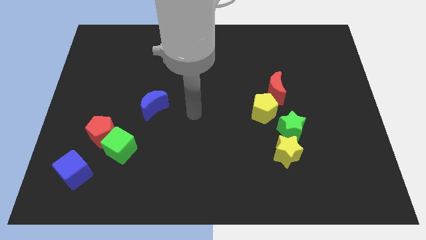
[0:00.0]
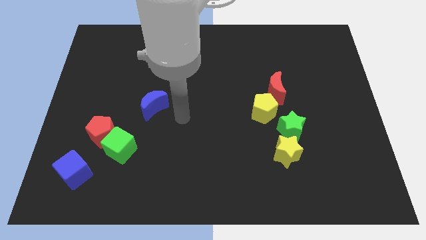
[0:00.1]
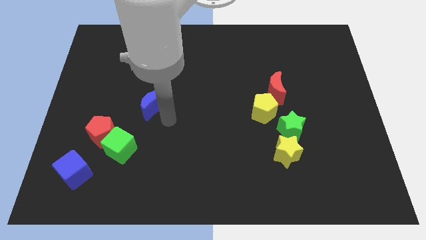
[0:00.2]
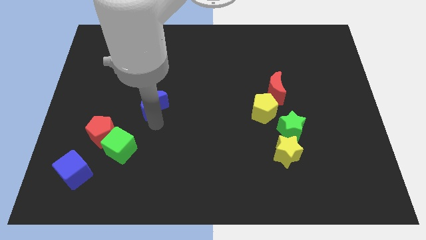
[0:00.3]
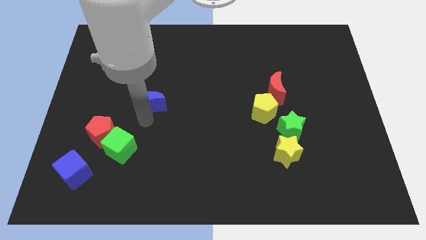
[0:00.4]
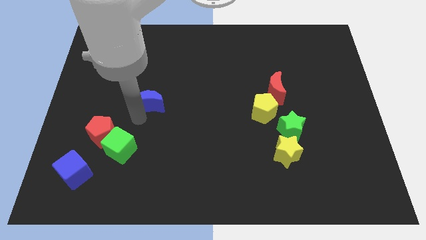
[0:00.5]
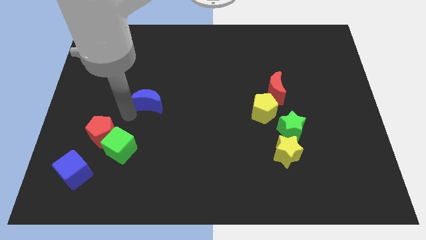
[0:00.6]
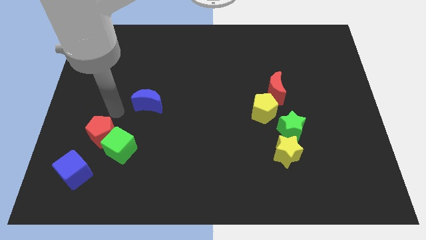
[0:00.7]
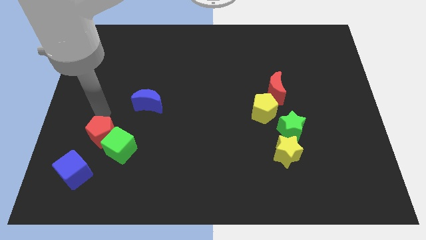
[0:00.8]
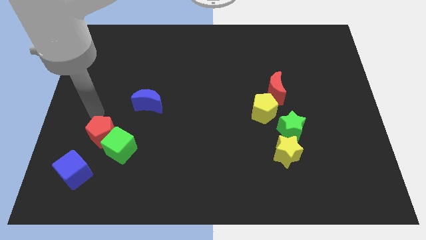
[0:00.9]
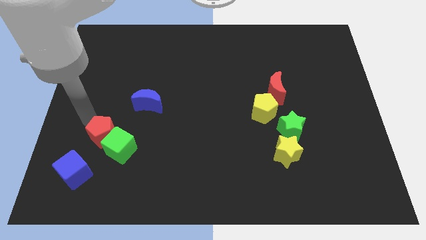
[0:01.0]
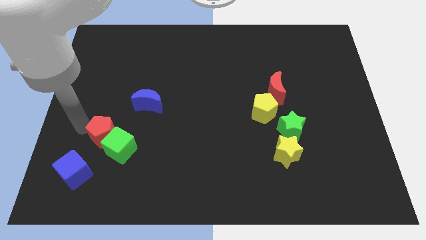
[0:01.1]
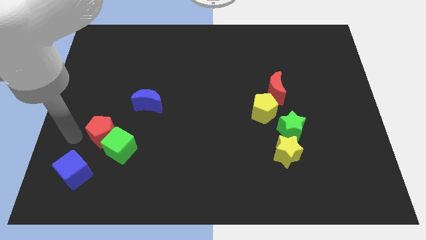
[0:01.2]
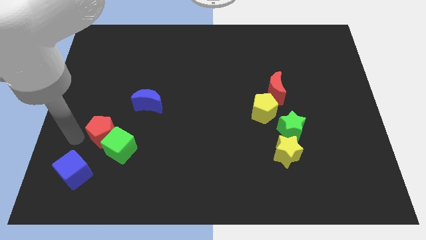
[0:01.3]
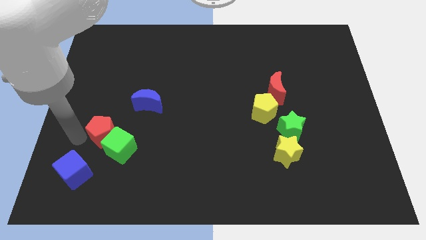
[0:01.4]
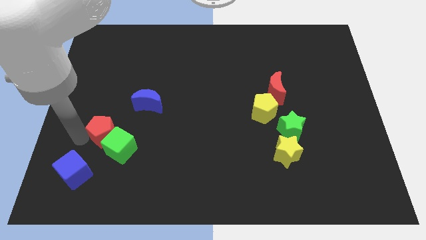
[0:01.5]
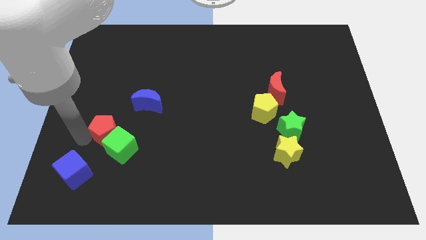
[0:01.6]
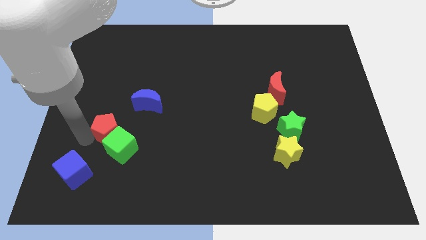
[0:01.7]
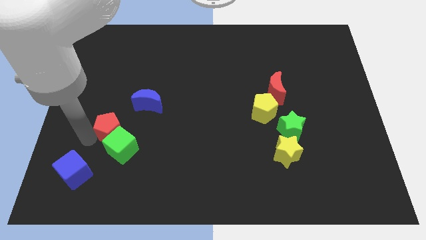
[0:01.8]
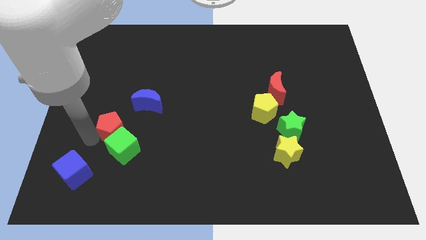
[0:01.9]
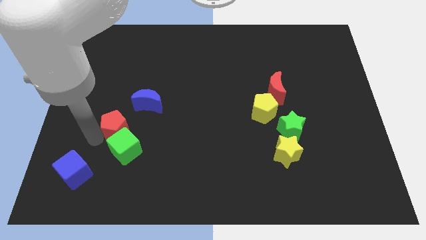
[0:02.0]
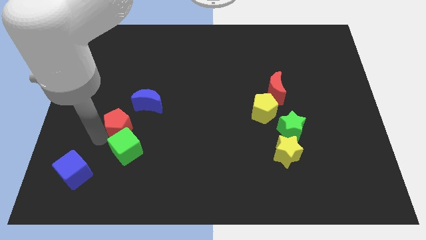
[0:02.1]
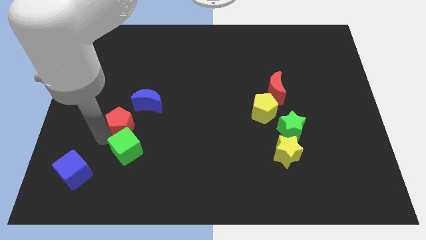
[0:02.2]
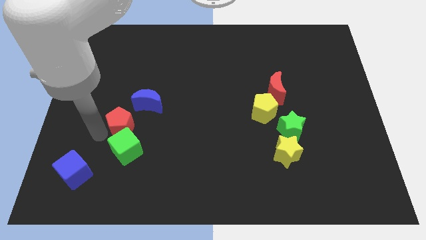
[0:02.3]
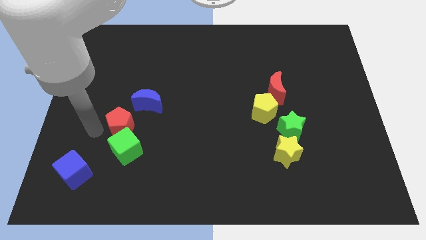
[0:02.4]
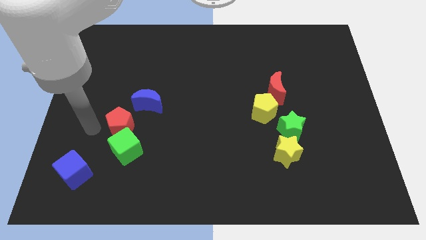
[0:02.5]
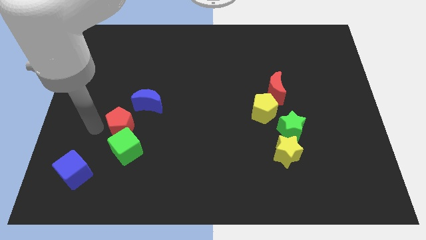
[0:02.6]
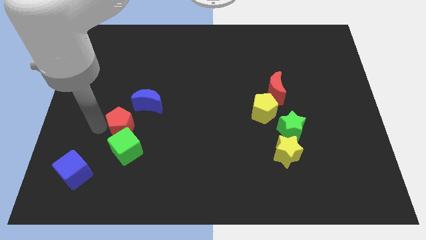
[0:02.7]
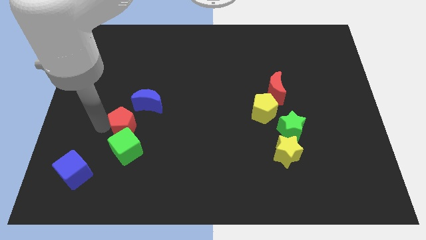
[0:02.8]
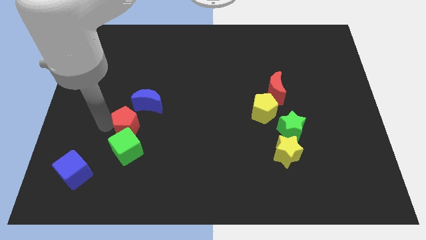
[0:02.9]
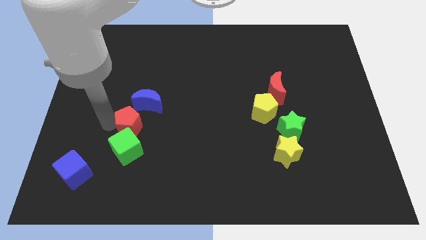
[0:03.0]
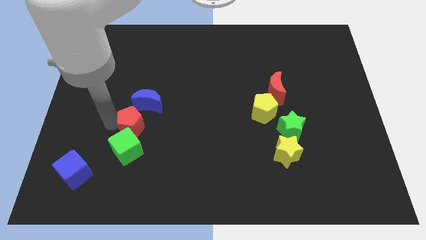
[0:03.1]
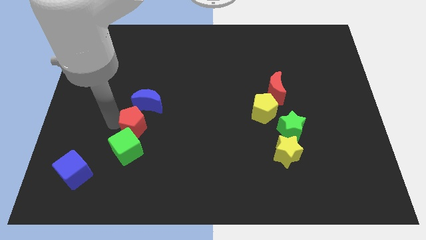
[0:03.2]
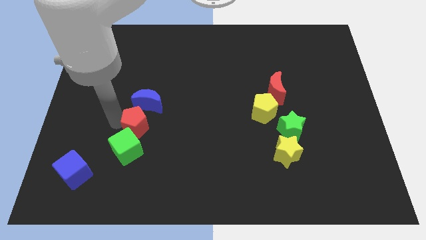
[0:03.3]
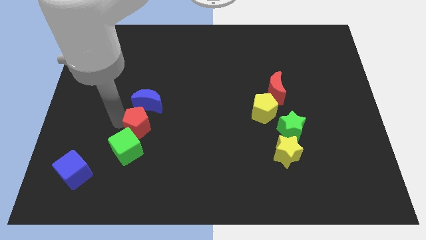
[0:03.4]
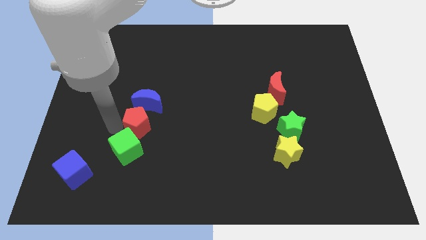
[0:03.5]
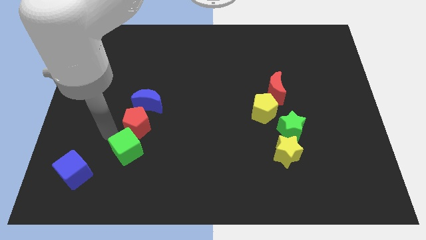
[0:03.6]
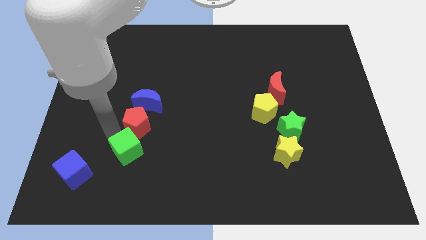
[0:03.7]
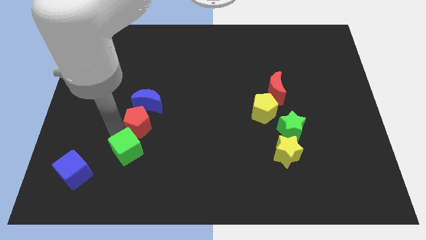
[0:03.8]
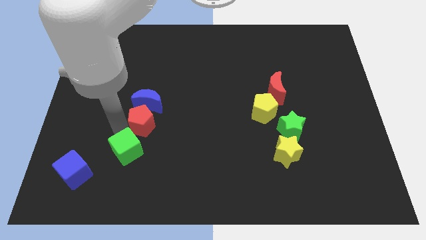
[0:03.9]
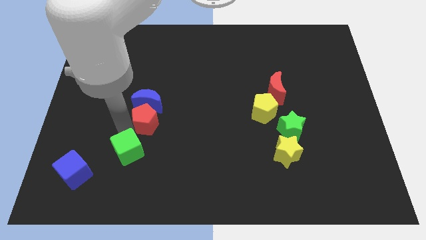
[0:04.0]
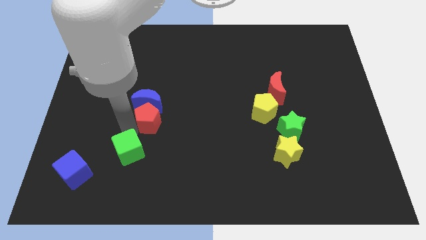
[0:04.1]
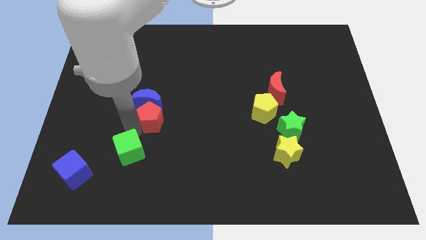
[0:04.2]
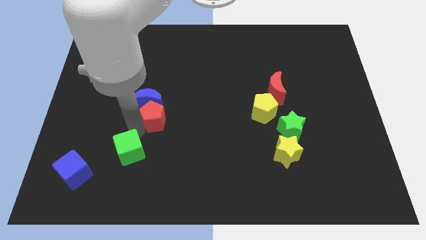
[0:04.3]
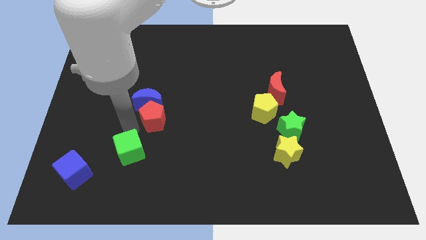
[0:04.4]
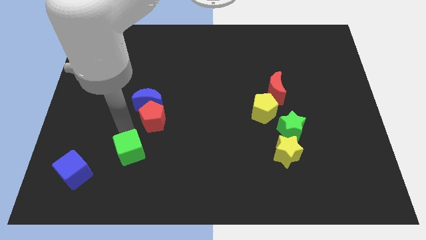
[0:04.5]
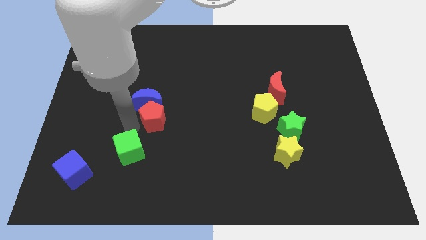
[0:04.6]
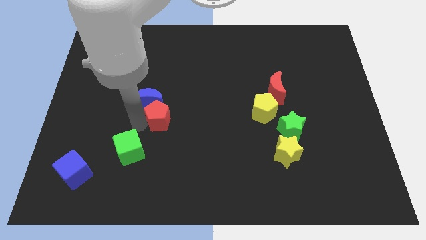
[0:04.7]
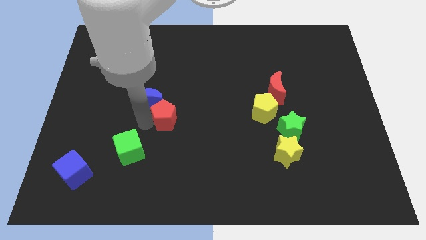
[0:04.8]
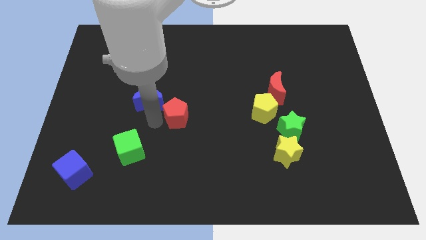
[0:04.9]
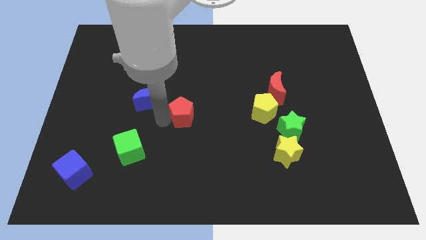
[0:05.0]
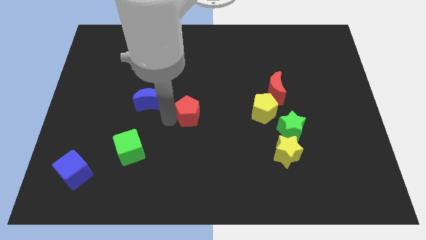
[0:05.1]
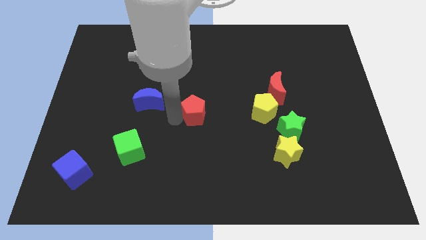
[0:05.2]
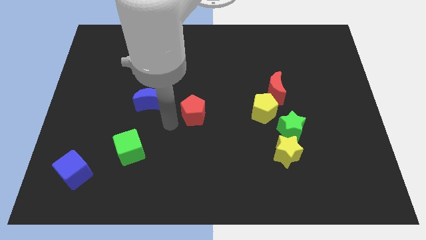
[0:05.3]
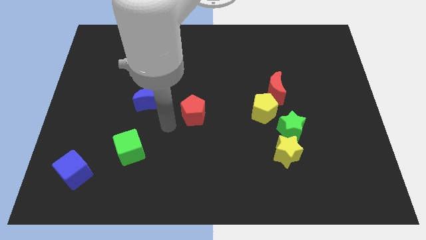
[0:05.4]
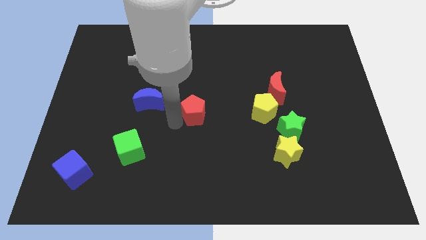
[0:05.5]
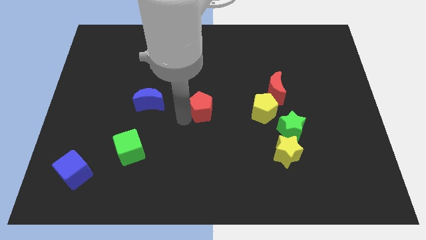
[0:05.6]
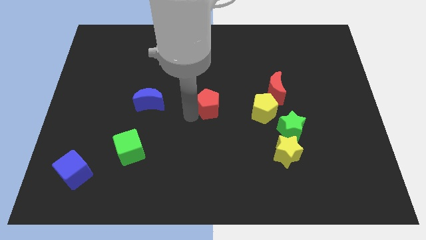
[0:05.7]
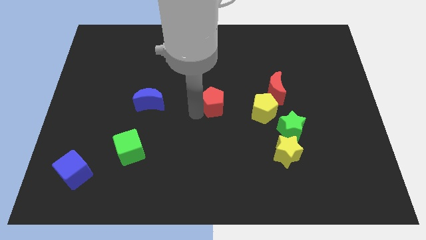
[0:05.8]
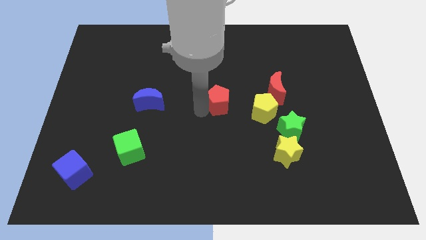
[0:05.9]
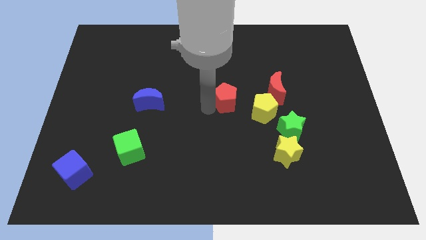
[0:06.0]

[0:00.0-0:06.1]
put the red pentagon to the top left side of the yellow pentagon

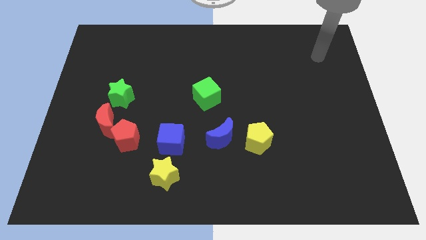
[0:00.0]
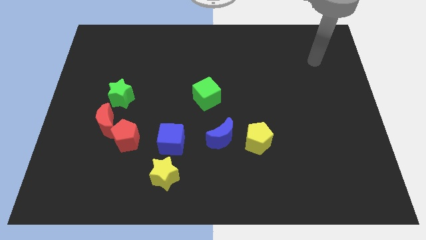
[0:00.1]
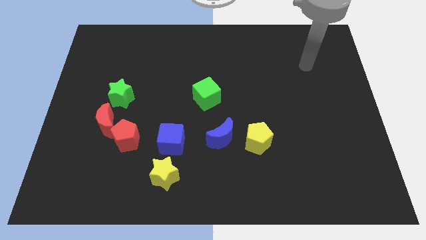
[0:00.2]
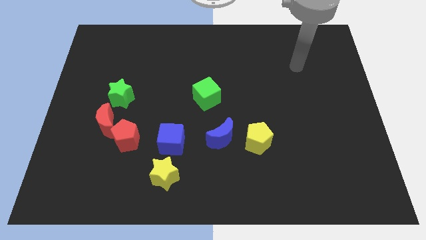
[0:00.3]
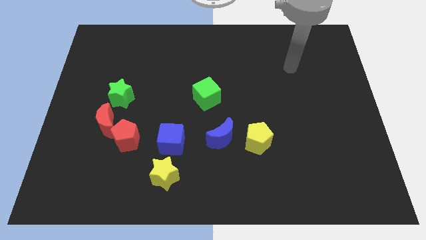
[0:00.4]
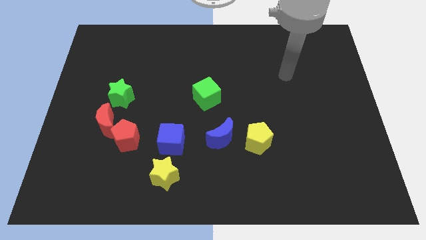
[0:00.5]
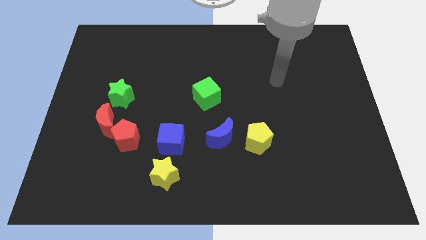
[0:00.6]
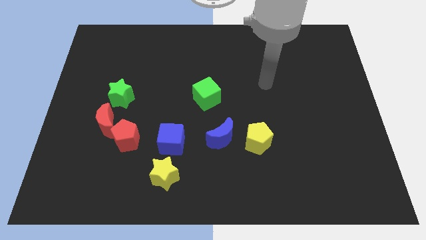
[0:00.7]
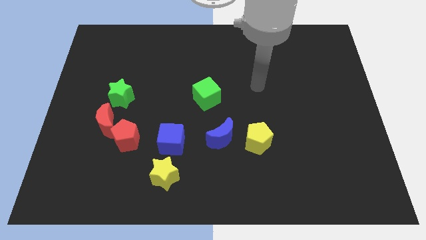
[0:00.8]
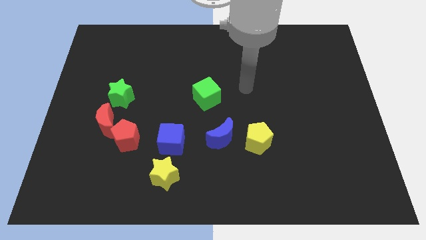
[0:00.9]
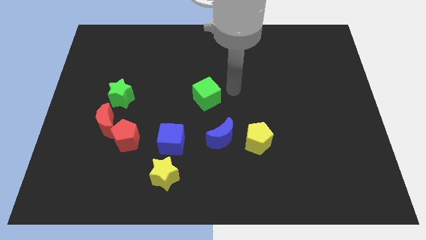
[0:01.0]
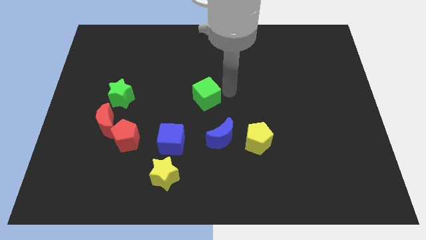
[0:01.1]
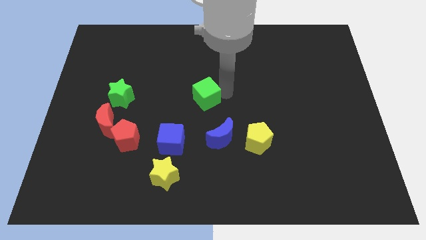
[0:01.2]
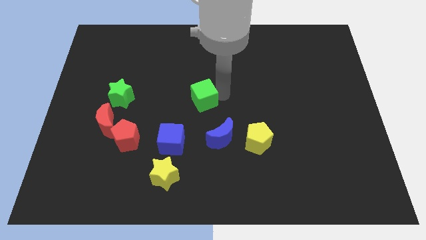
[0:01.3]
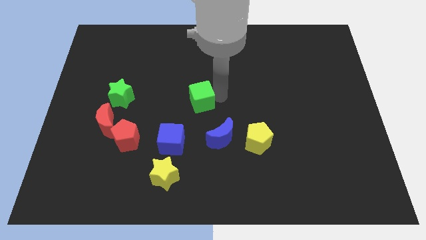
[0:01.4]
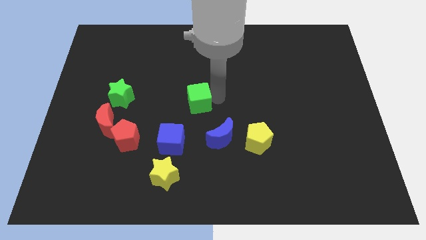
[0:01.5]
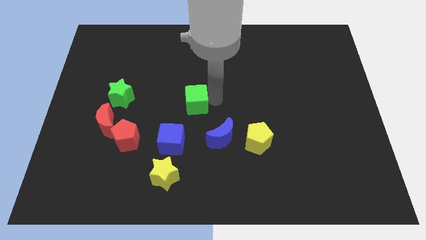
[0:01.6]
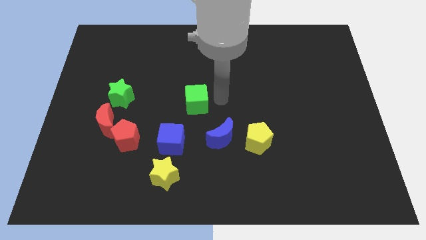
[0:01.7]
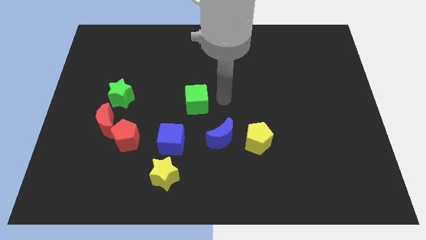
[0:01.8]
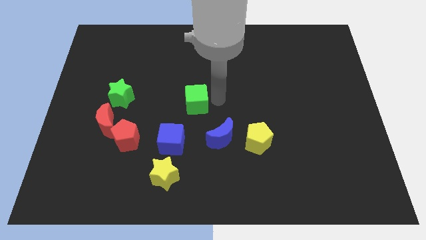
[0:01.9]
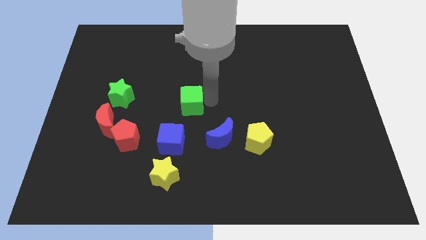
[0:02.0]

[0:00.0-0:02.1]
put the green cube to the top side of the blue cube
